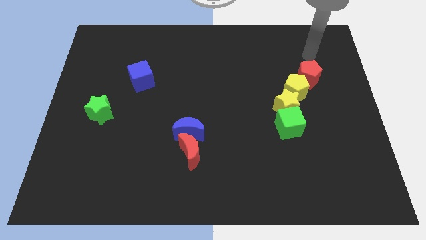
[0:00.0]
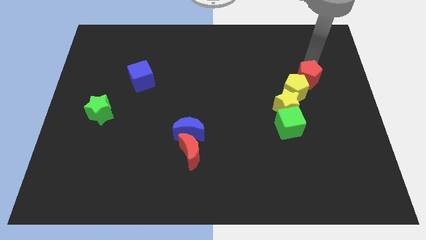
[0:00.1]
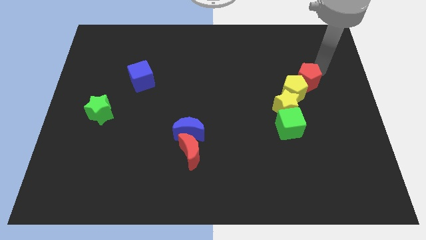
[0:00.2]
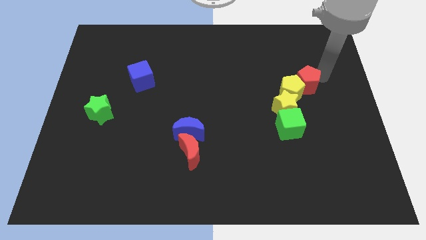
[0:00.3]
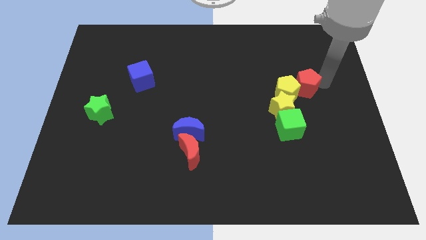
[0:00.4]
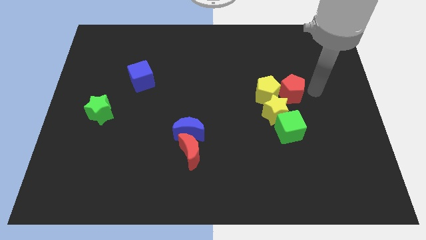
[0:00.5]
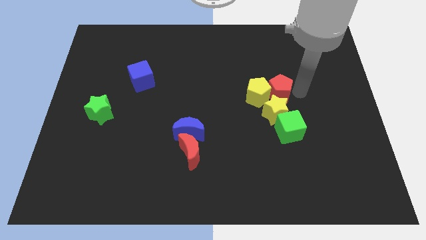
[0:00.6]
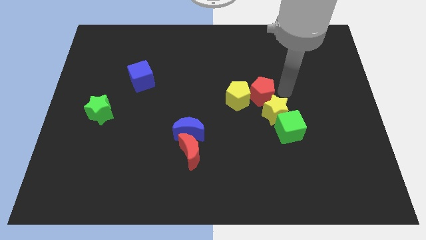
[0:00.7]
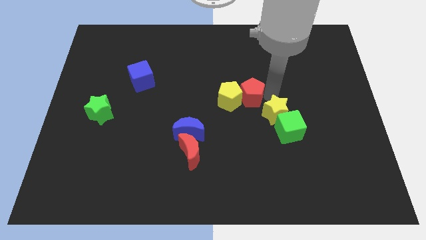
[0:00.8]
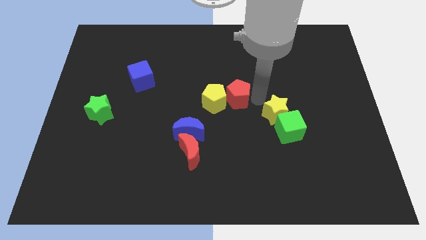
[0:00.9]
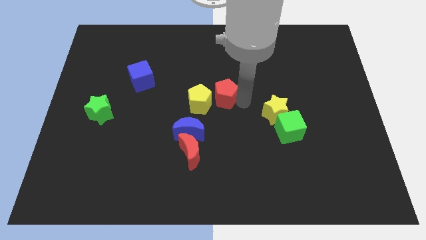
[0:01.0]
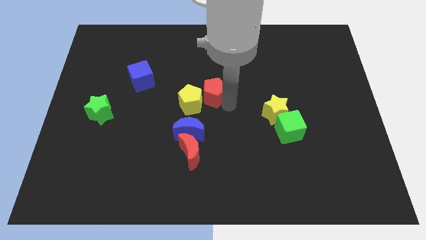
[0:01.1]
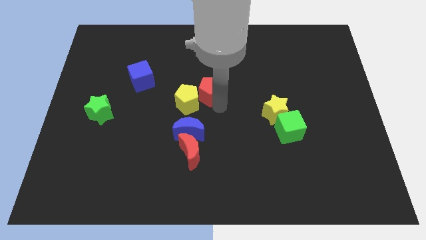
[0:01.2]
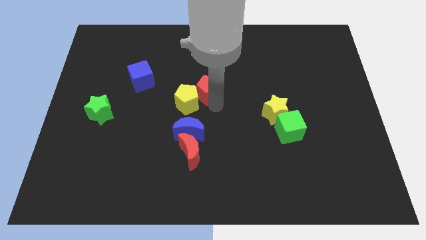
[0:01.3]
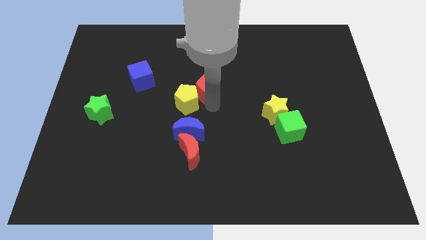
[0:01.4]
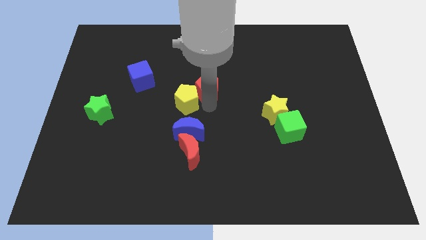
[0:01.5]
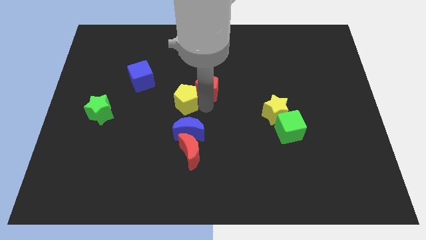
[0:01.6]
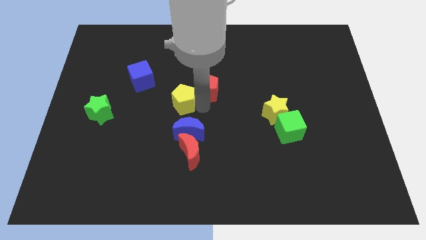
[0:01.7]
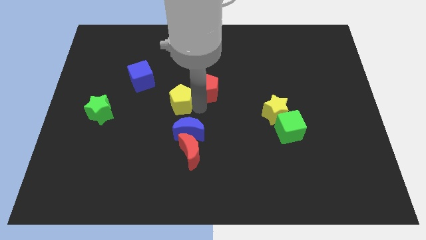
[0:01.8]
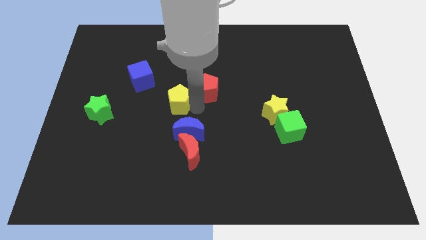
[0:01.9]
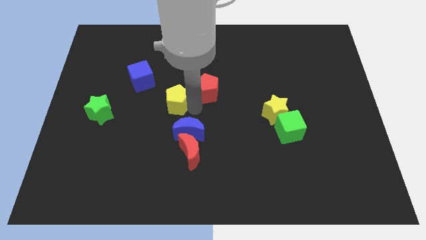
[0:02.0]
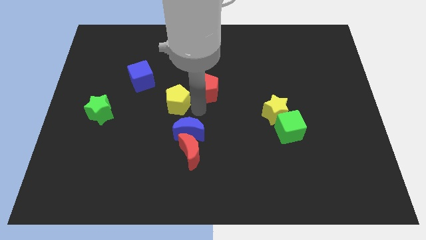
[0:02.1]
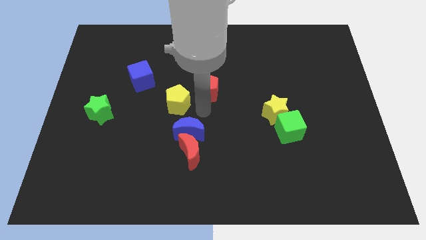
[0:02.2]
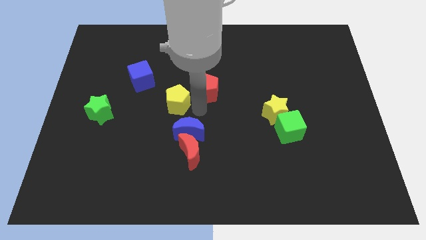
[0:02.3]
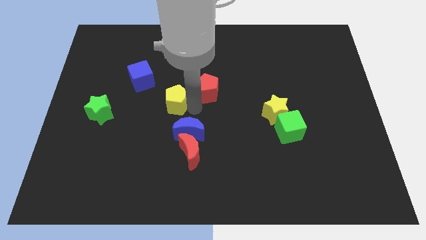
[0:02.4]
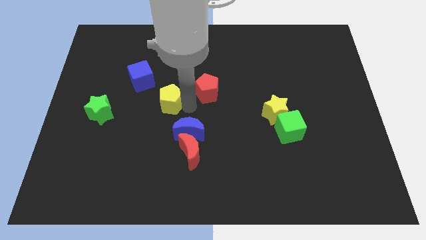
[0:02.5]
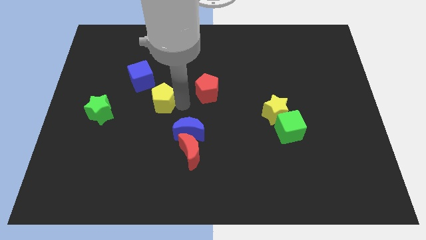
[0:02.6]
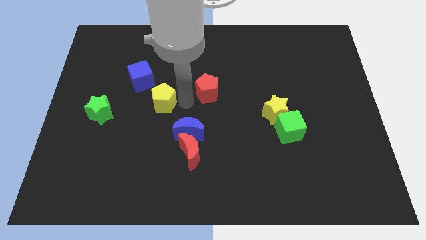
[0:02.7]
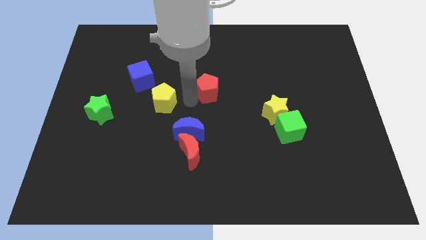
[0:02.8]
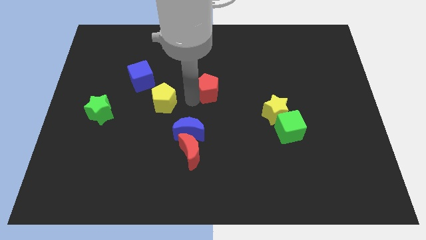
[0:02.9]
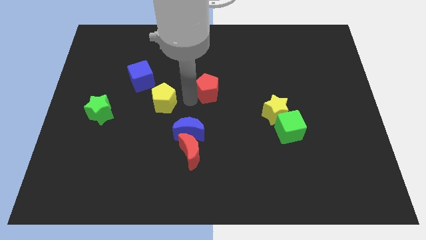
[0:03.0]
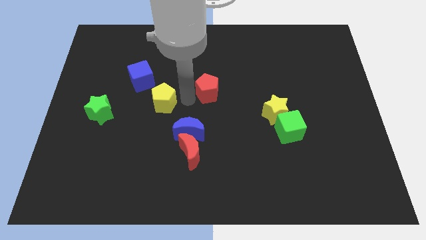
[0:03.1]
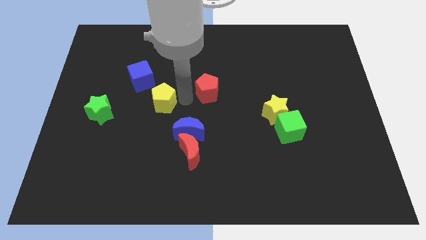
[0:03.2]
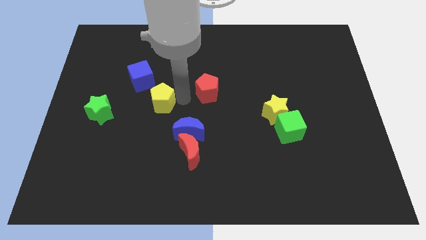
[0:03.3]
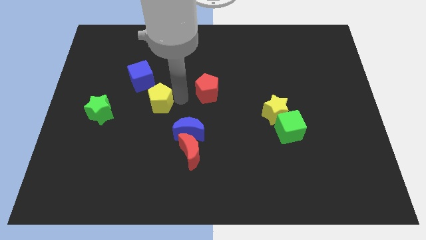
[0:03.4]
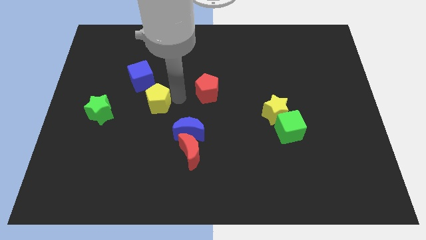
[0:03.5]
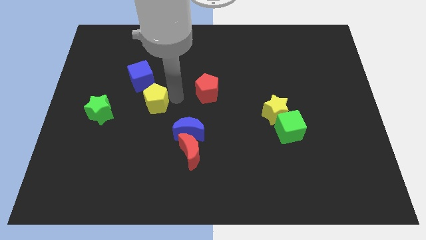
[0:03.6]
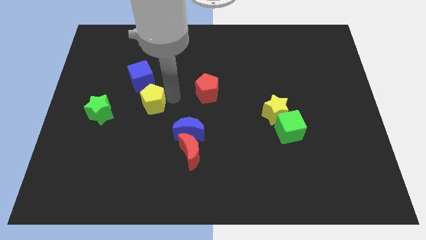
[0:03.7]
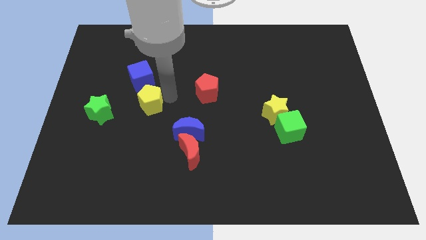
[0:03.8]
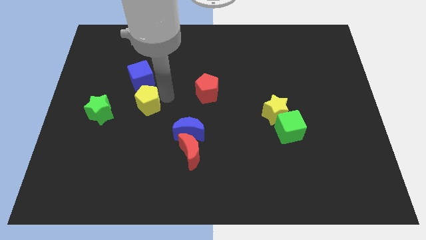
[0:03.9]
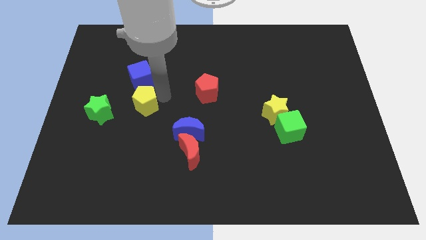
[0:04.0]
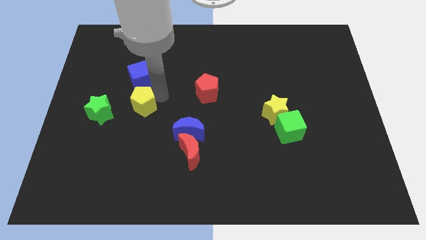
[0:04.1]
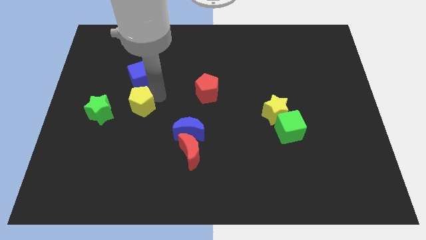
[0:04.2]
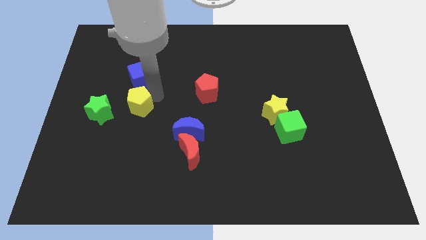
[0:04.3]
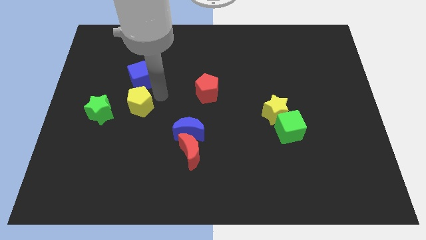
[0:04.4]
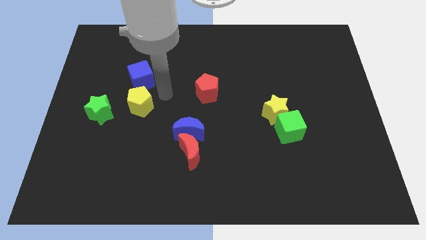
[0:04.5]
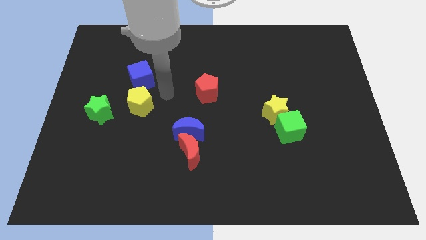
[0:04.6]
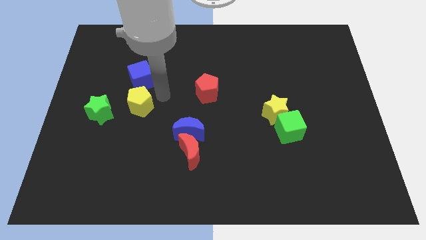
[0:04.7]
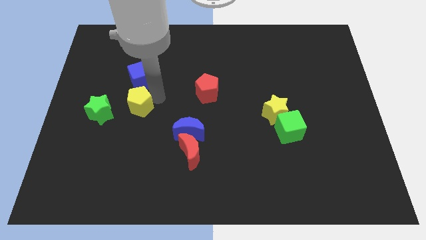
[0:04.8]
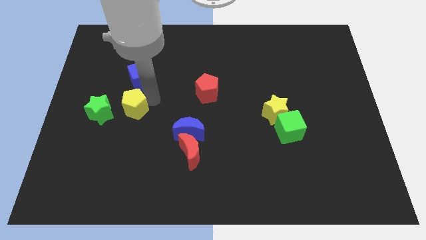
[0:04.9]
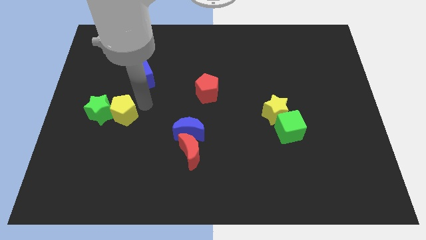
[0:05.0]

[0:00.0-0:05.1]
move the yellow pentagon close to the green star

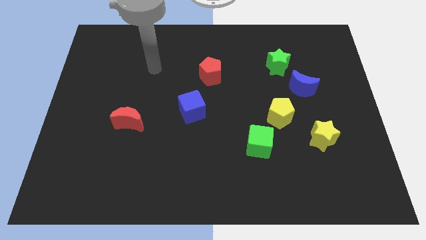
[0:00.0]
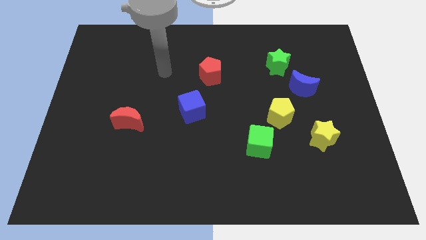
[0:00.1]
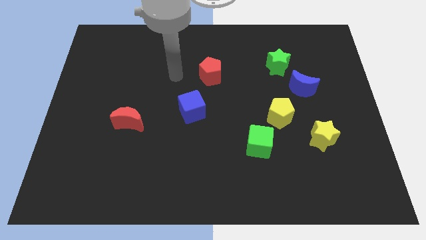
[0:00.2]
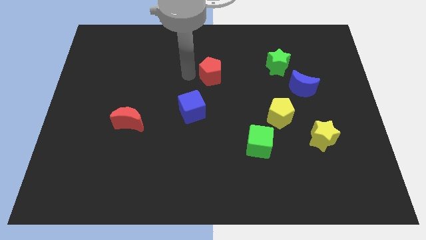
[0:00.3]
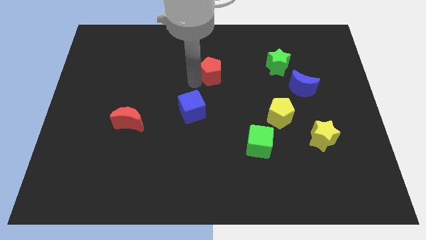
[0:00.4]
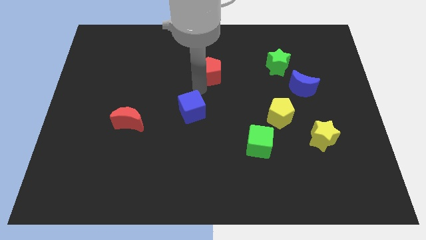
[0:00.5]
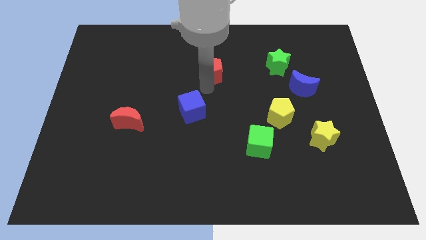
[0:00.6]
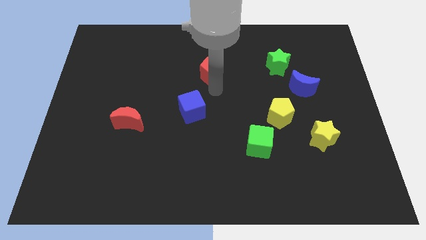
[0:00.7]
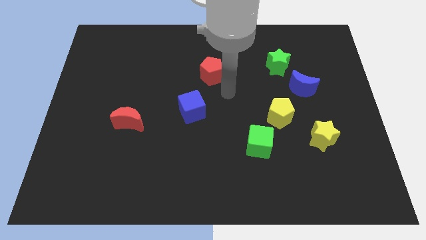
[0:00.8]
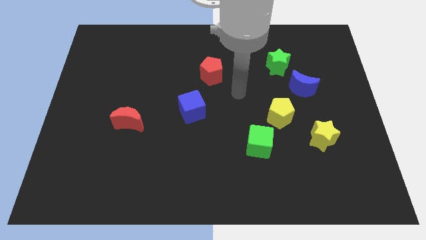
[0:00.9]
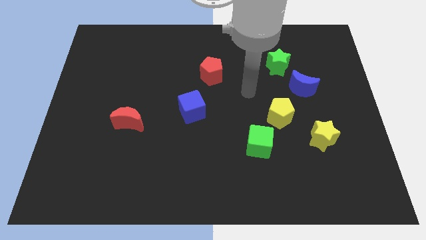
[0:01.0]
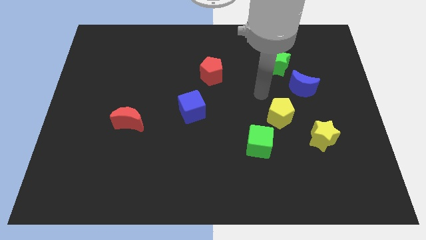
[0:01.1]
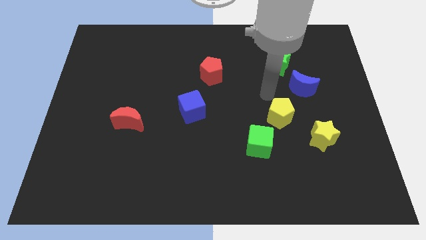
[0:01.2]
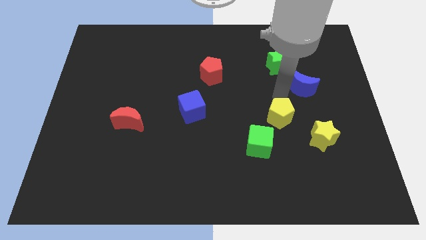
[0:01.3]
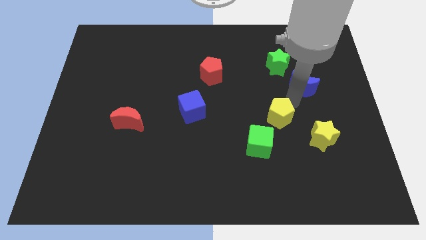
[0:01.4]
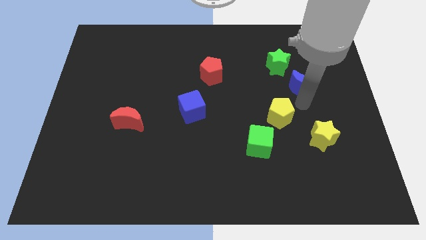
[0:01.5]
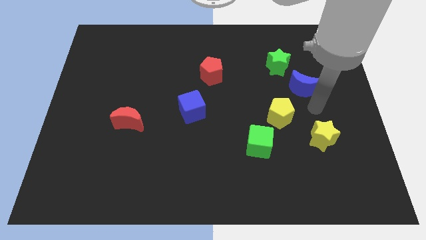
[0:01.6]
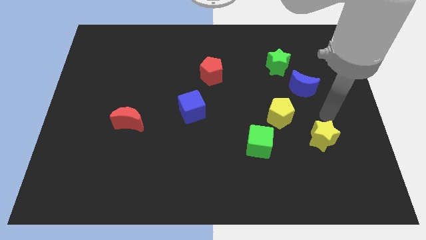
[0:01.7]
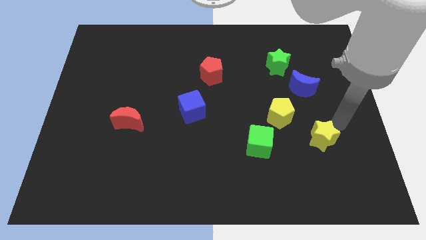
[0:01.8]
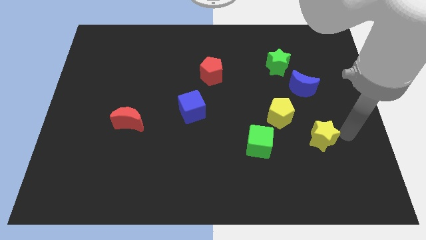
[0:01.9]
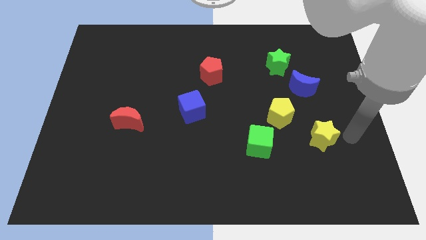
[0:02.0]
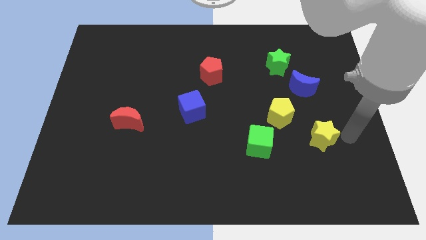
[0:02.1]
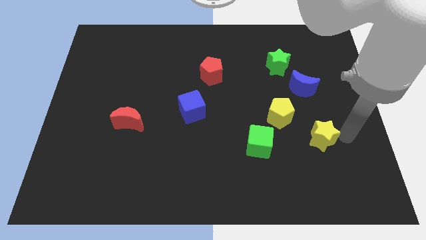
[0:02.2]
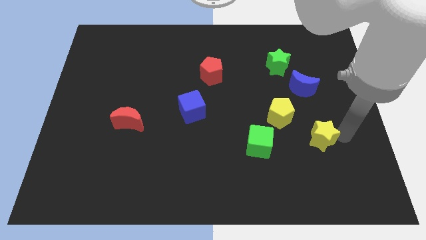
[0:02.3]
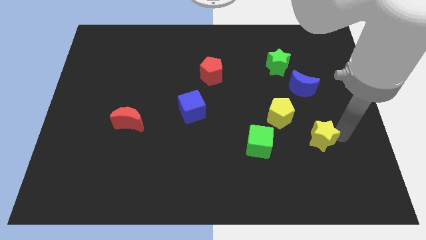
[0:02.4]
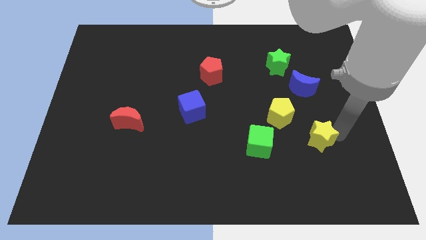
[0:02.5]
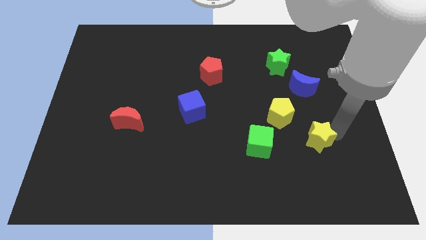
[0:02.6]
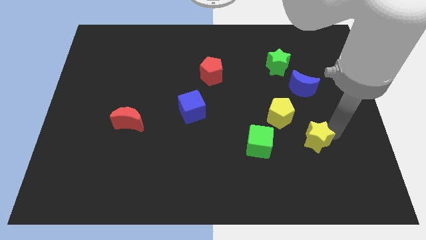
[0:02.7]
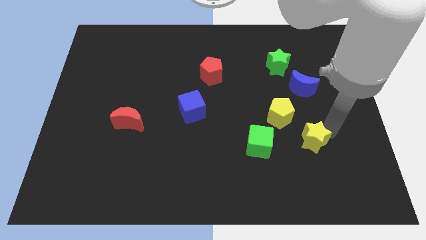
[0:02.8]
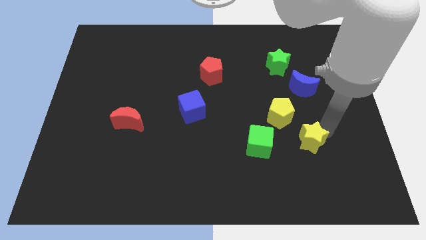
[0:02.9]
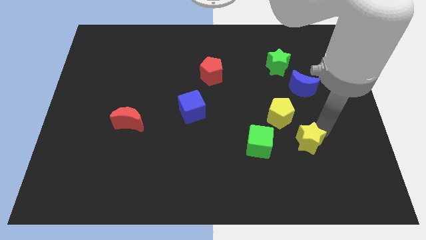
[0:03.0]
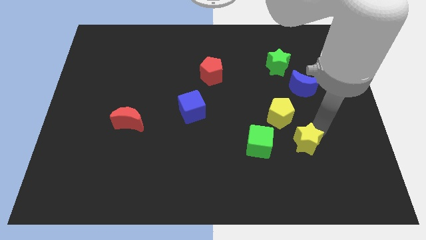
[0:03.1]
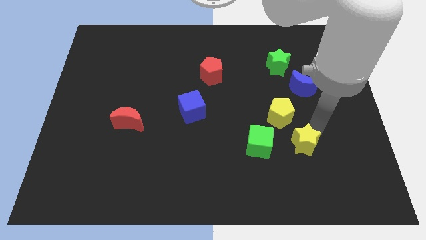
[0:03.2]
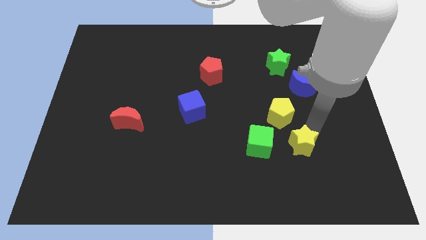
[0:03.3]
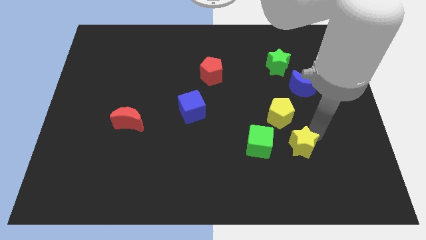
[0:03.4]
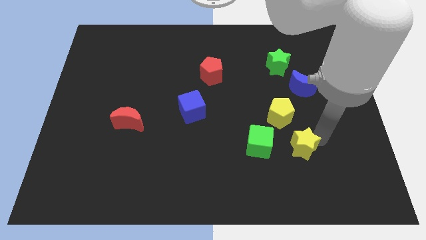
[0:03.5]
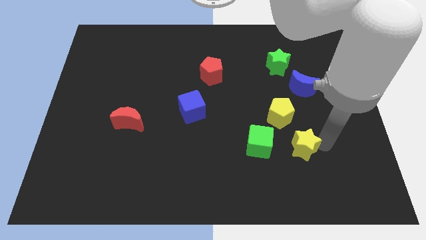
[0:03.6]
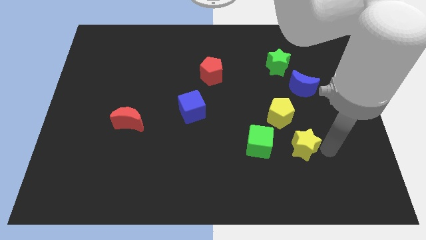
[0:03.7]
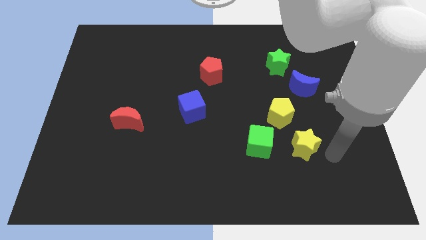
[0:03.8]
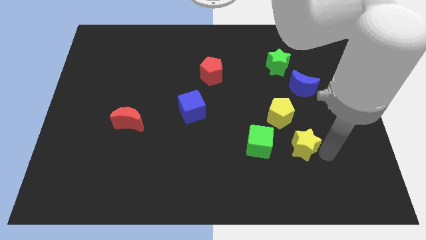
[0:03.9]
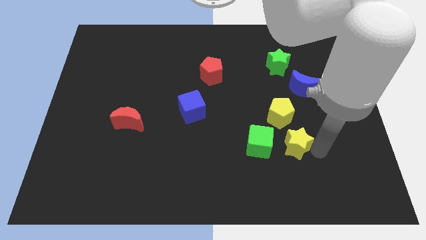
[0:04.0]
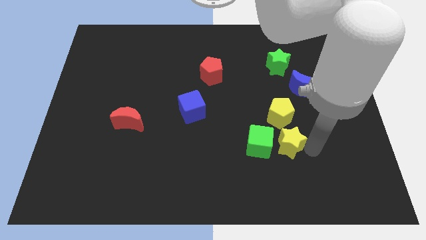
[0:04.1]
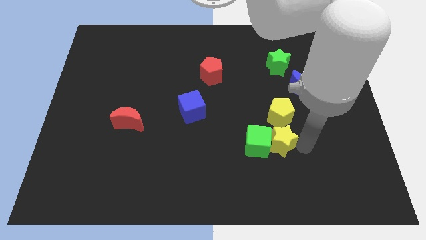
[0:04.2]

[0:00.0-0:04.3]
put the yellow star towards the green cube
